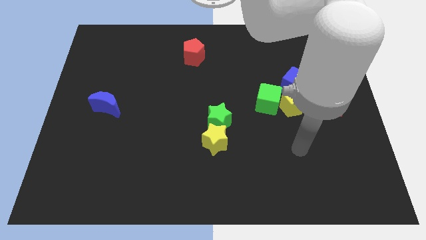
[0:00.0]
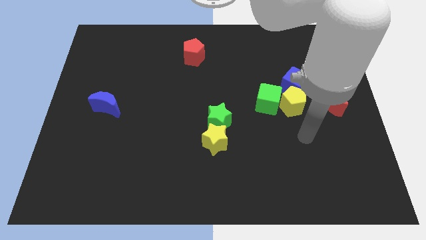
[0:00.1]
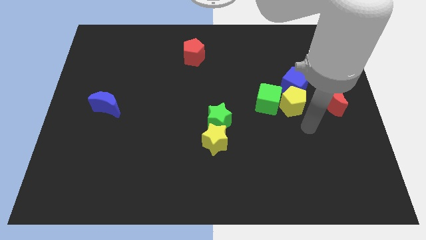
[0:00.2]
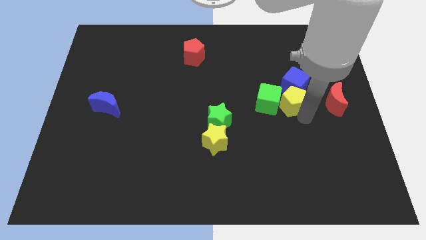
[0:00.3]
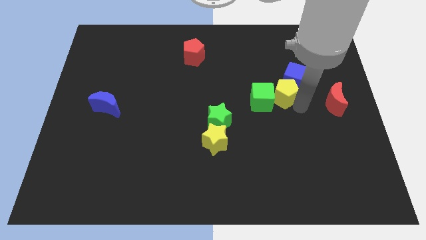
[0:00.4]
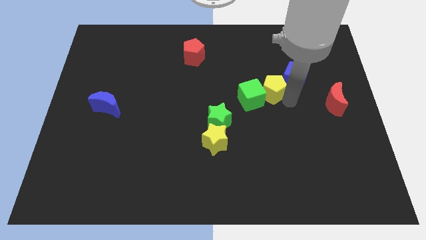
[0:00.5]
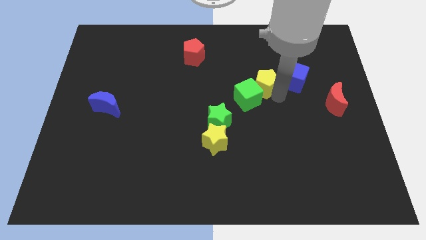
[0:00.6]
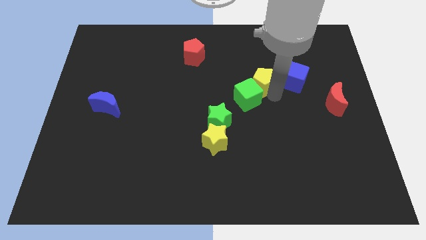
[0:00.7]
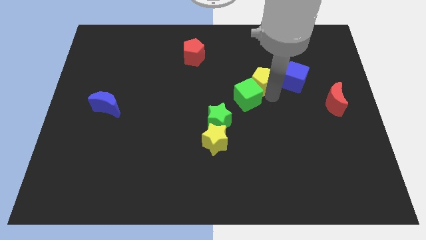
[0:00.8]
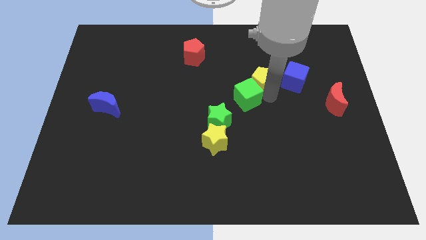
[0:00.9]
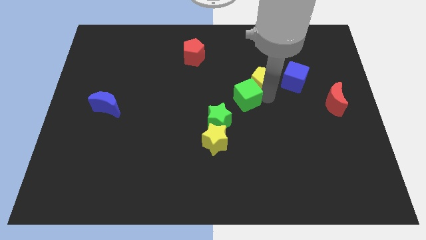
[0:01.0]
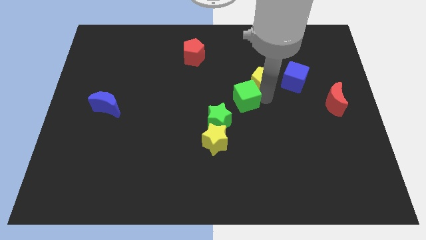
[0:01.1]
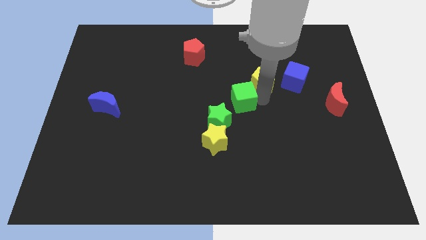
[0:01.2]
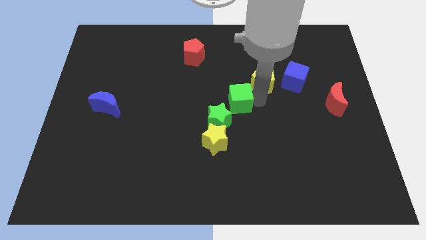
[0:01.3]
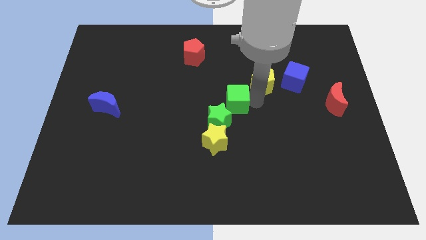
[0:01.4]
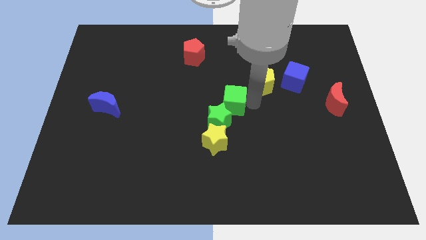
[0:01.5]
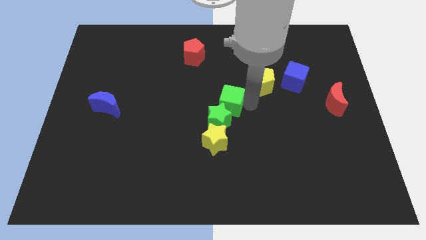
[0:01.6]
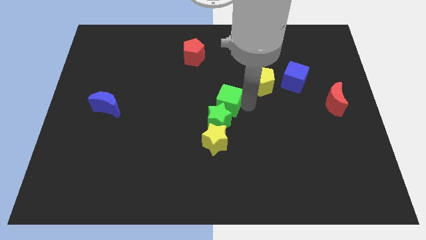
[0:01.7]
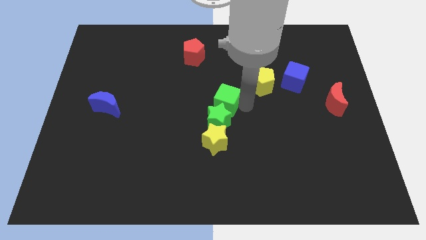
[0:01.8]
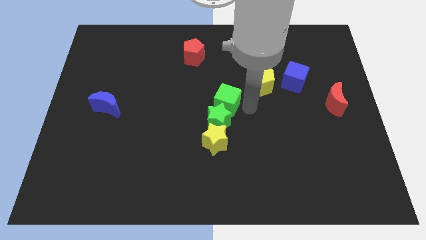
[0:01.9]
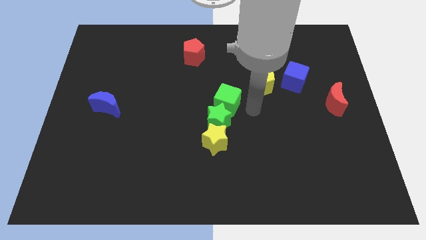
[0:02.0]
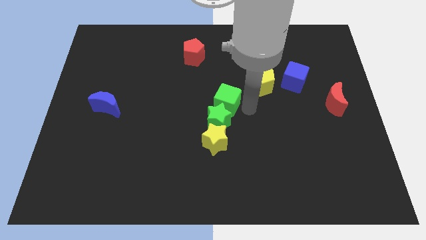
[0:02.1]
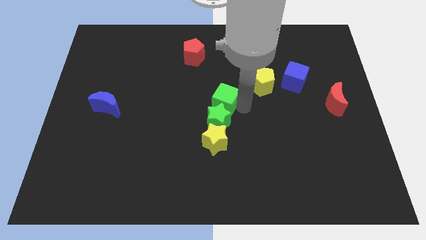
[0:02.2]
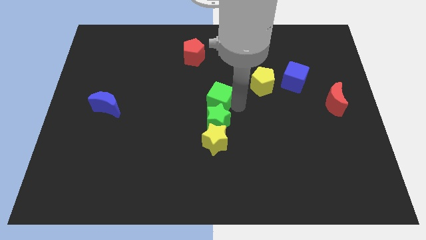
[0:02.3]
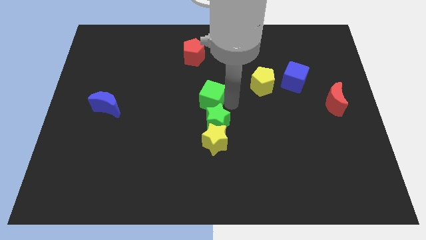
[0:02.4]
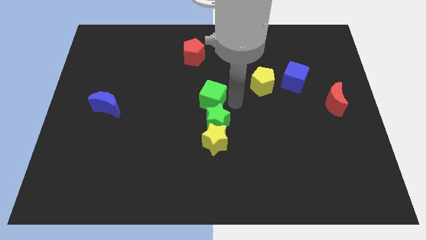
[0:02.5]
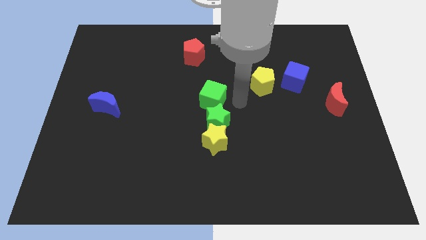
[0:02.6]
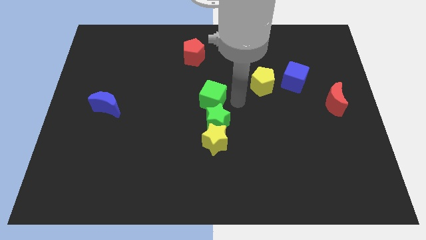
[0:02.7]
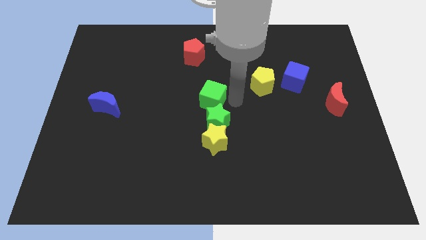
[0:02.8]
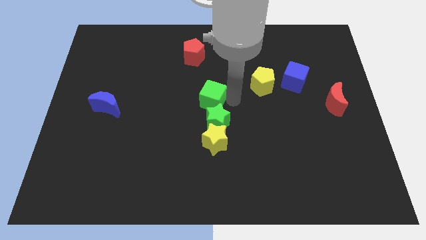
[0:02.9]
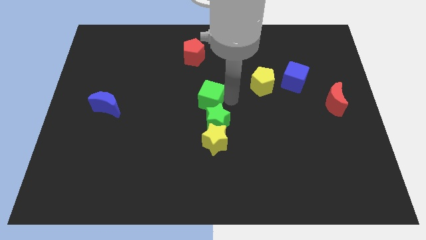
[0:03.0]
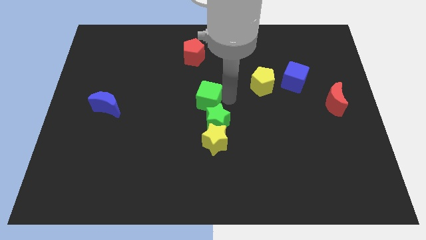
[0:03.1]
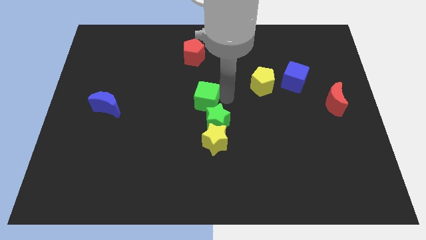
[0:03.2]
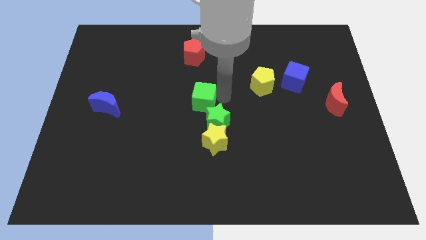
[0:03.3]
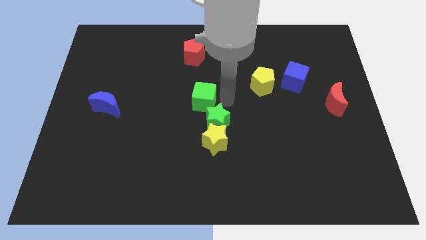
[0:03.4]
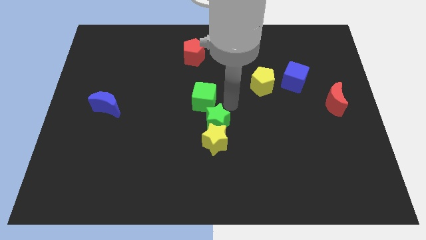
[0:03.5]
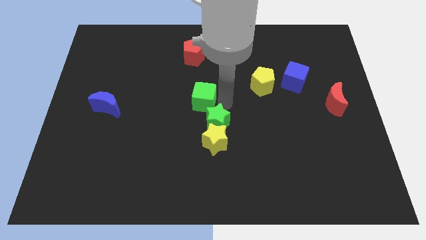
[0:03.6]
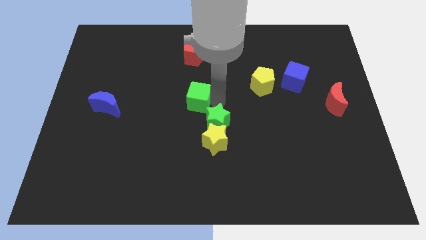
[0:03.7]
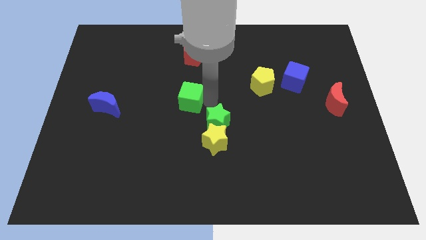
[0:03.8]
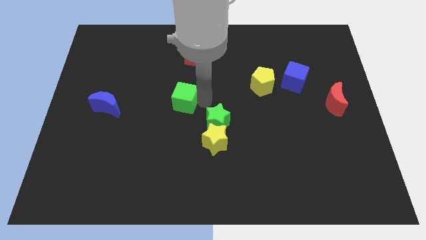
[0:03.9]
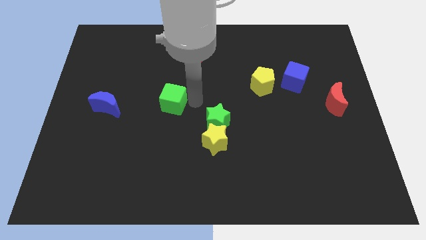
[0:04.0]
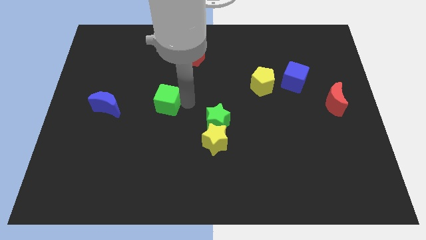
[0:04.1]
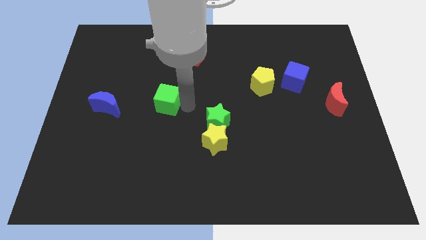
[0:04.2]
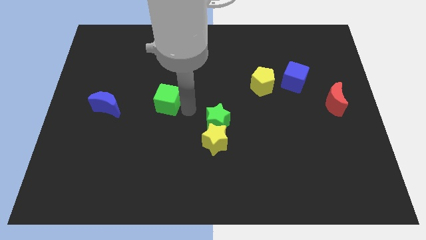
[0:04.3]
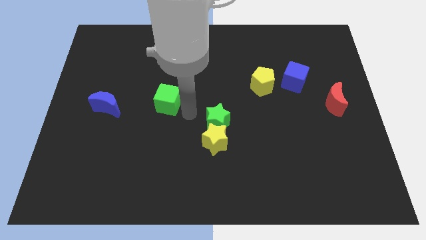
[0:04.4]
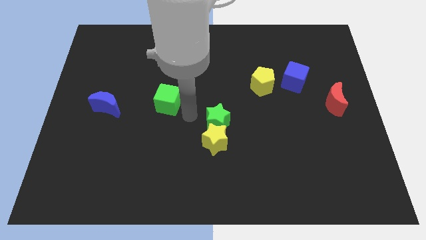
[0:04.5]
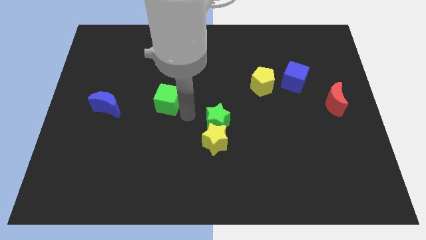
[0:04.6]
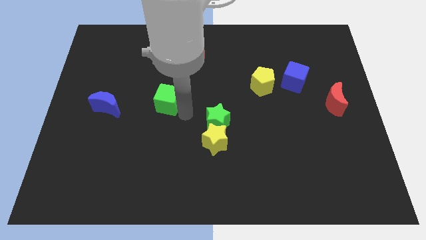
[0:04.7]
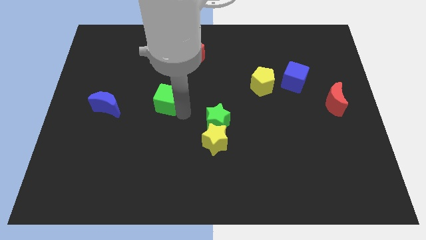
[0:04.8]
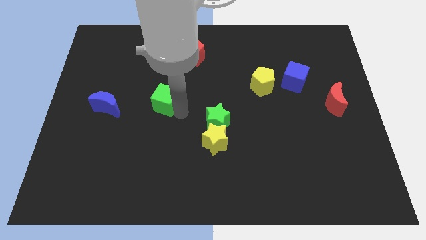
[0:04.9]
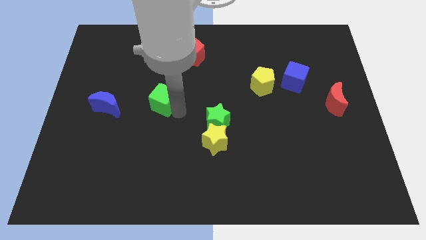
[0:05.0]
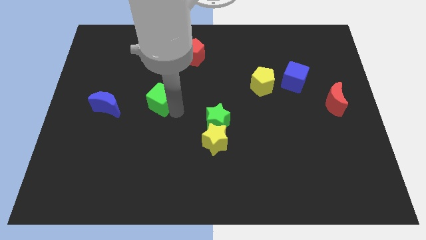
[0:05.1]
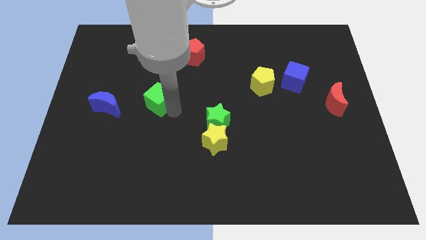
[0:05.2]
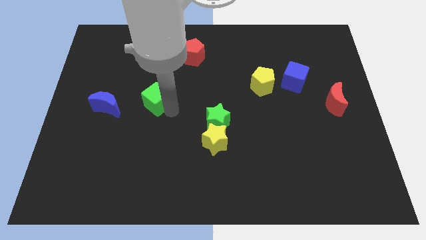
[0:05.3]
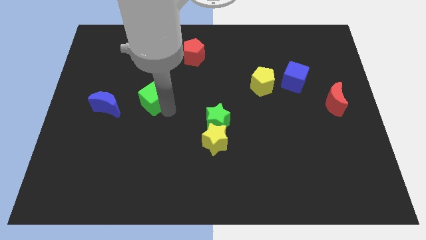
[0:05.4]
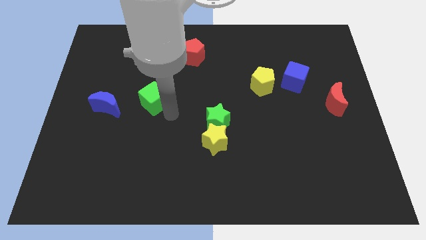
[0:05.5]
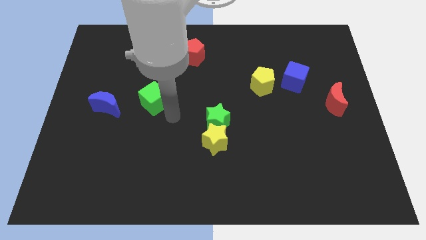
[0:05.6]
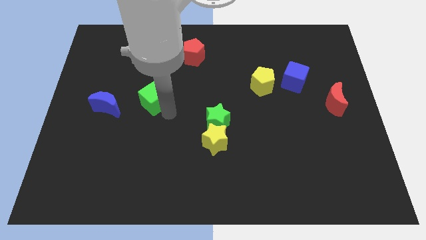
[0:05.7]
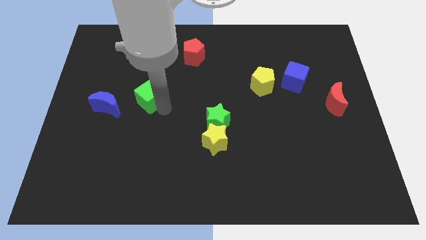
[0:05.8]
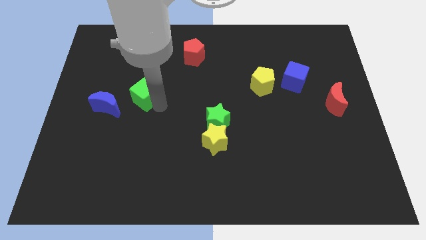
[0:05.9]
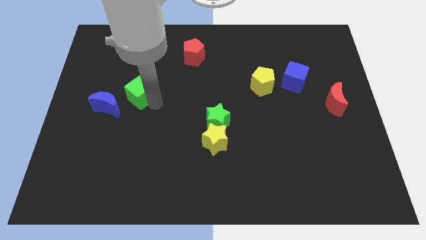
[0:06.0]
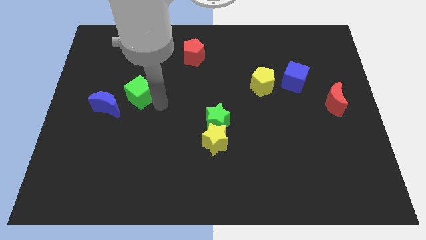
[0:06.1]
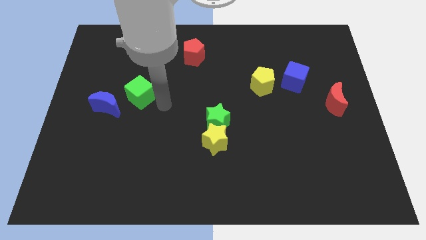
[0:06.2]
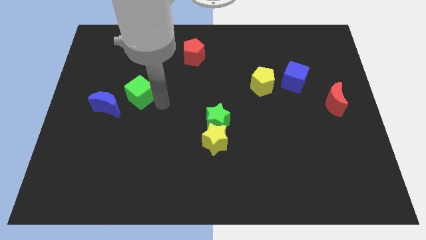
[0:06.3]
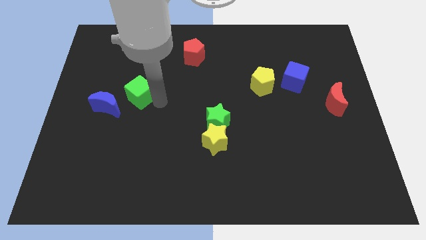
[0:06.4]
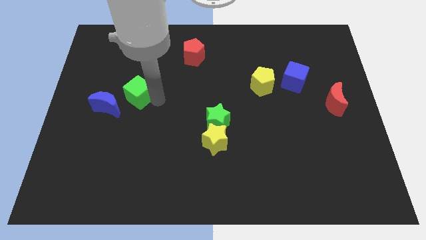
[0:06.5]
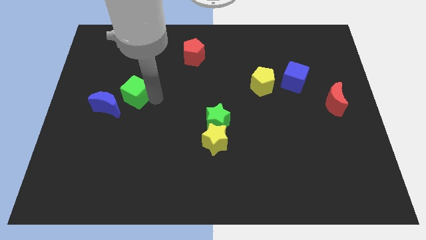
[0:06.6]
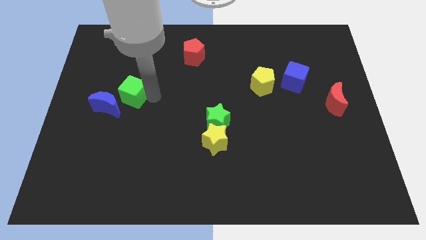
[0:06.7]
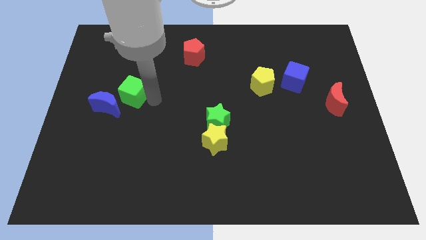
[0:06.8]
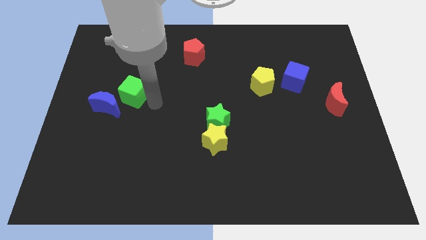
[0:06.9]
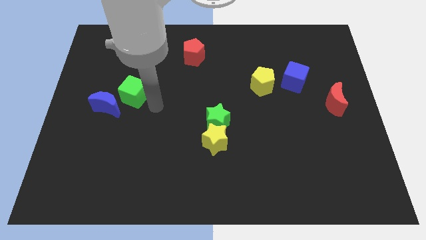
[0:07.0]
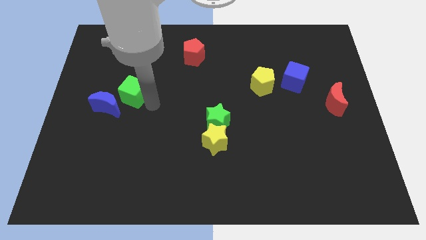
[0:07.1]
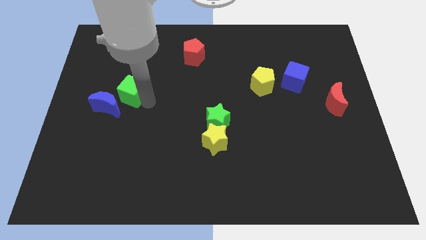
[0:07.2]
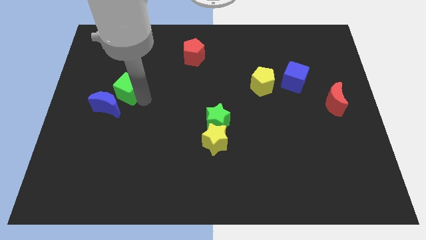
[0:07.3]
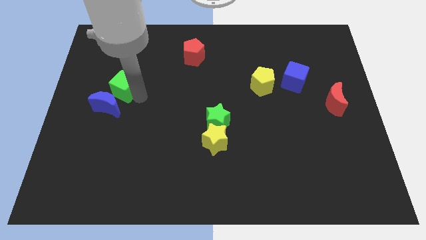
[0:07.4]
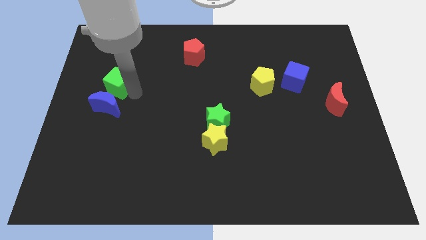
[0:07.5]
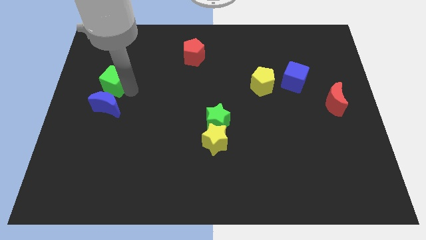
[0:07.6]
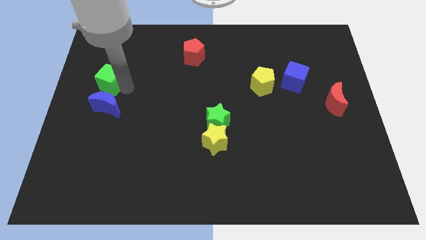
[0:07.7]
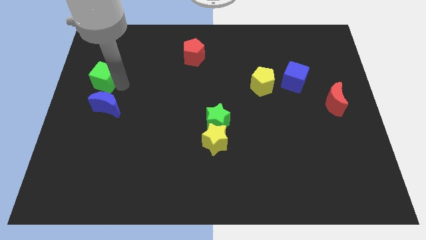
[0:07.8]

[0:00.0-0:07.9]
push the green cube to the center left
